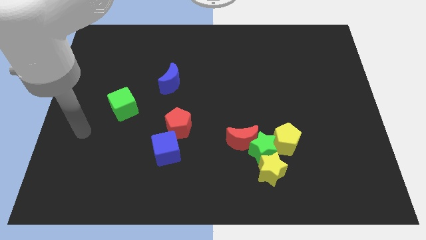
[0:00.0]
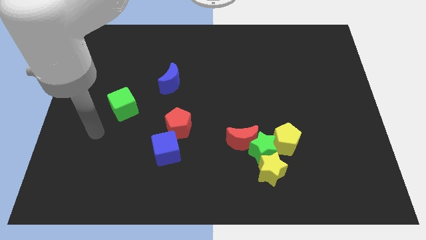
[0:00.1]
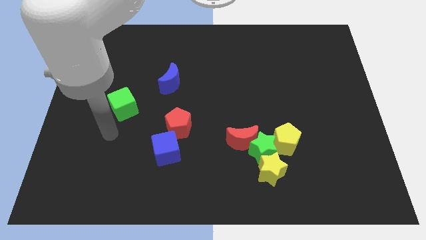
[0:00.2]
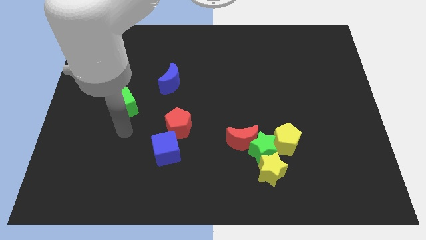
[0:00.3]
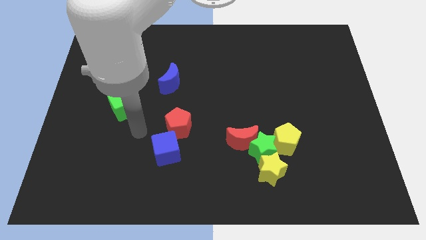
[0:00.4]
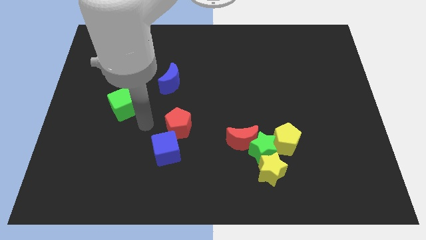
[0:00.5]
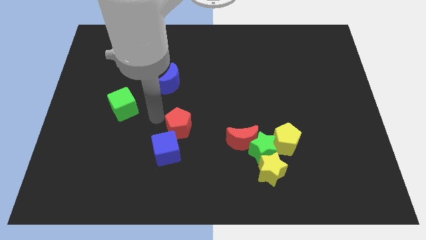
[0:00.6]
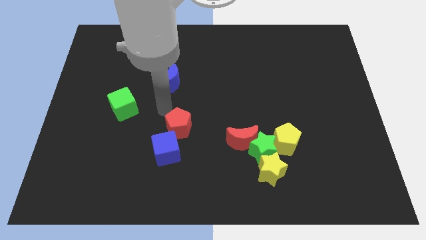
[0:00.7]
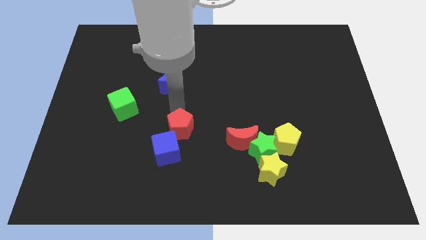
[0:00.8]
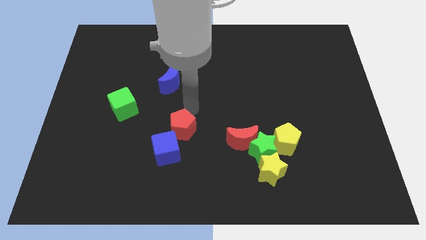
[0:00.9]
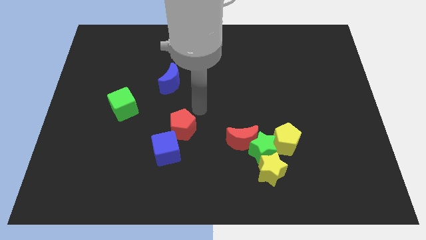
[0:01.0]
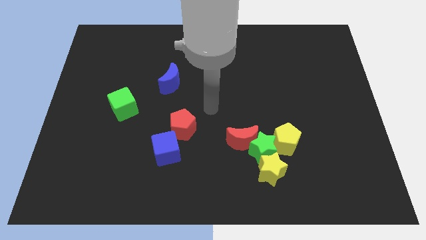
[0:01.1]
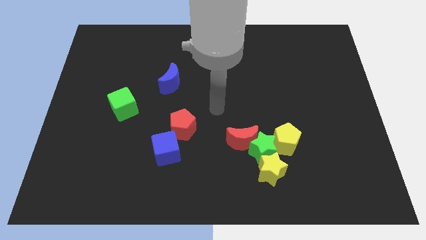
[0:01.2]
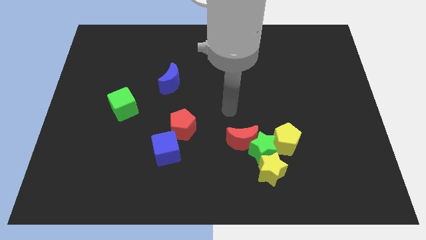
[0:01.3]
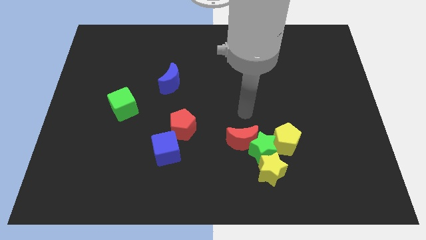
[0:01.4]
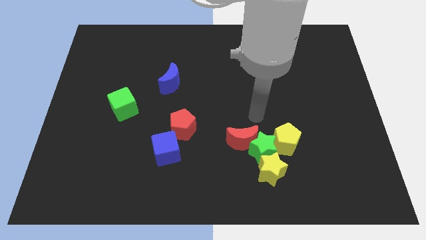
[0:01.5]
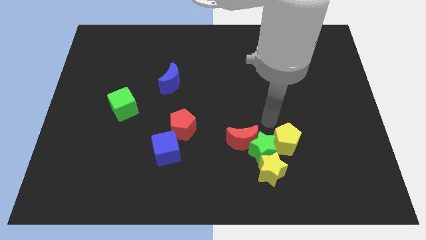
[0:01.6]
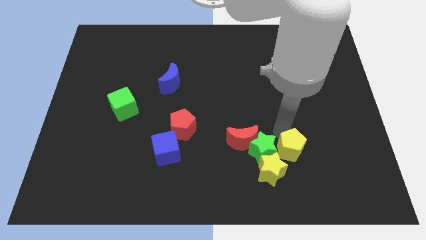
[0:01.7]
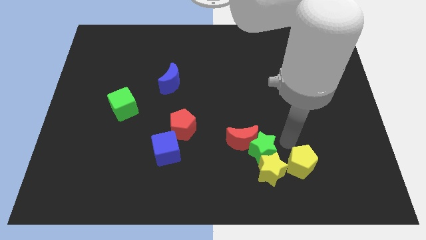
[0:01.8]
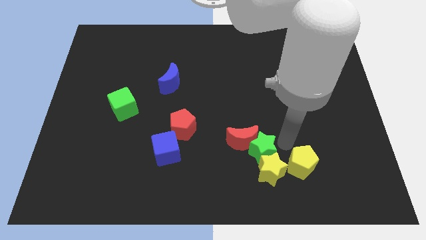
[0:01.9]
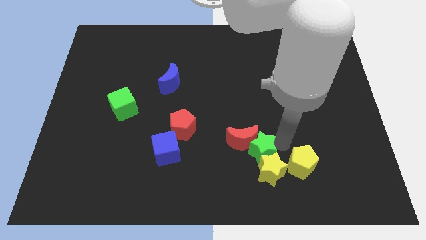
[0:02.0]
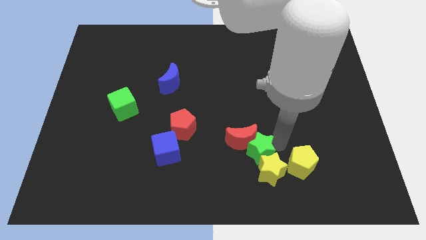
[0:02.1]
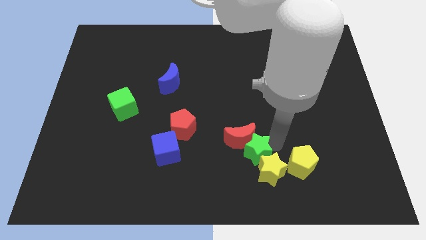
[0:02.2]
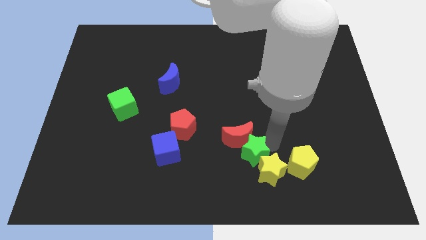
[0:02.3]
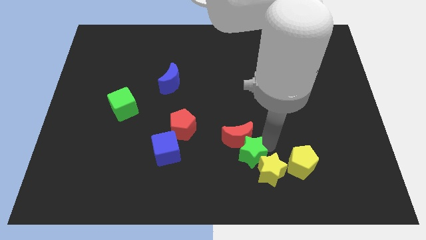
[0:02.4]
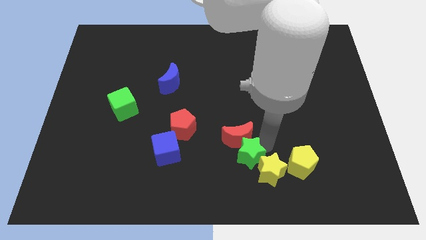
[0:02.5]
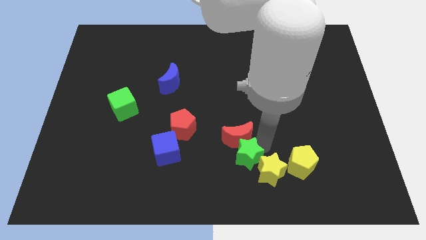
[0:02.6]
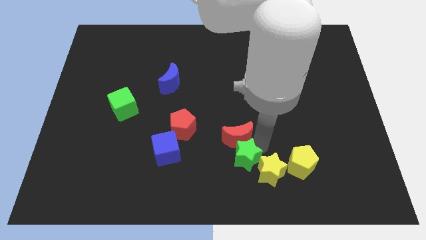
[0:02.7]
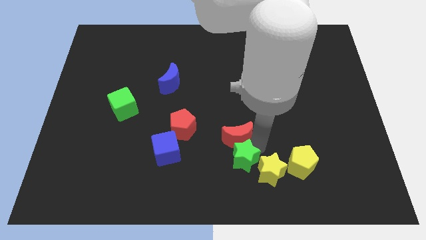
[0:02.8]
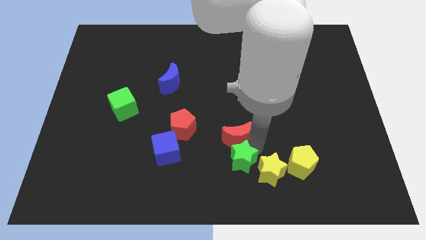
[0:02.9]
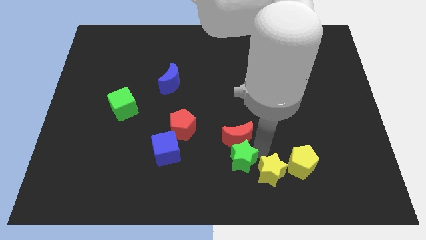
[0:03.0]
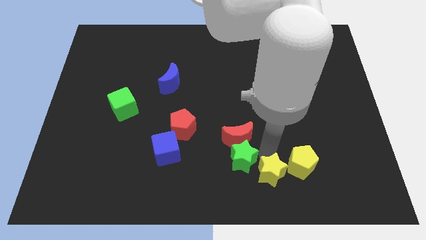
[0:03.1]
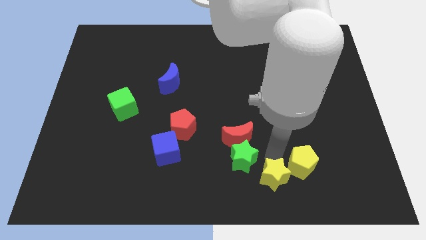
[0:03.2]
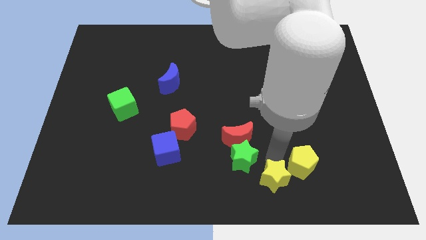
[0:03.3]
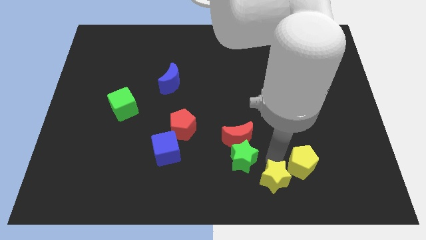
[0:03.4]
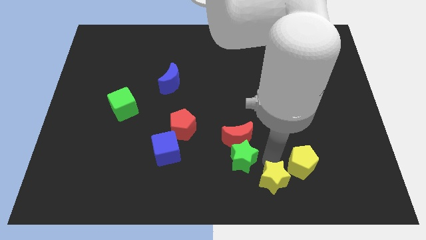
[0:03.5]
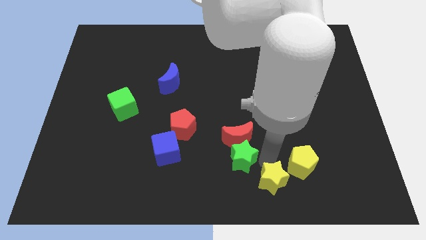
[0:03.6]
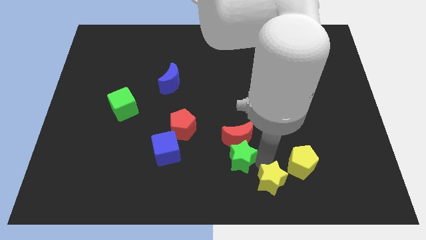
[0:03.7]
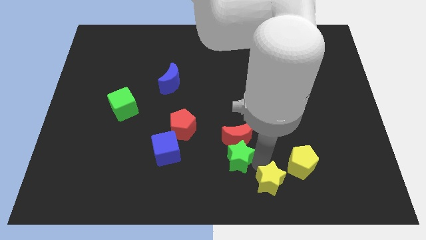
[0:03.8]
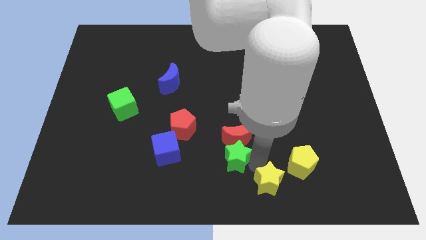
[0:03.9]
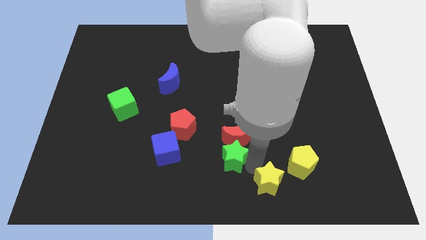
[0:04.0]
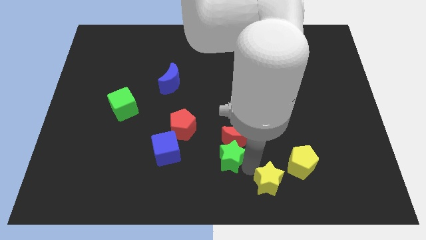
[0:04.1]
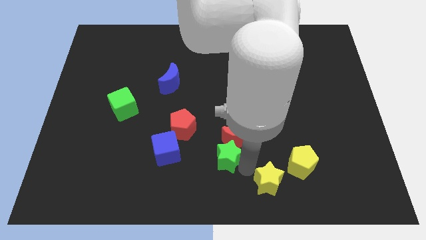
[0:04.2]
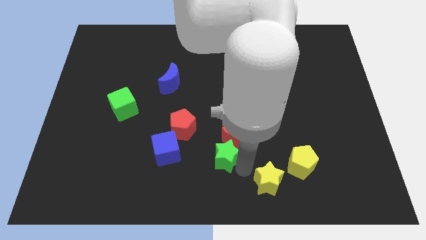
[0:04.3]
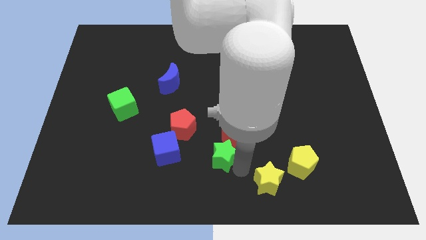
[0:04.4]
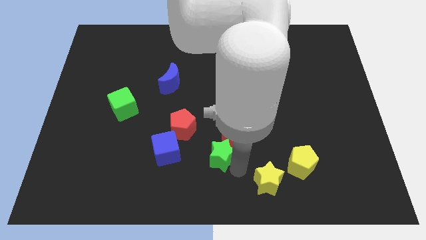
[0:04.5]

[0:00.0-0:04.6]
separate the green star from the red moon, yellow star, and yellow pentagon

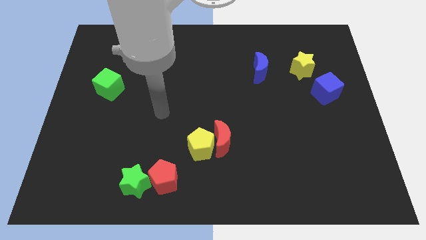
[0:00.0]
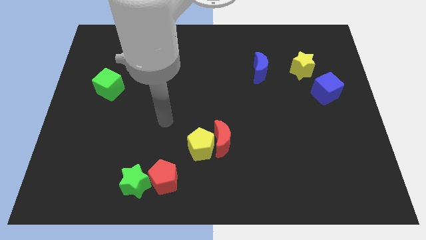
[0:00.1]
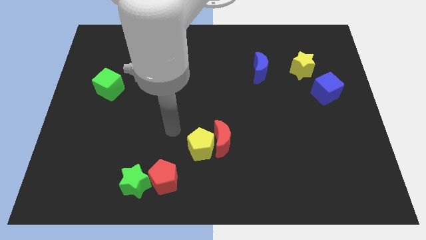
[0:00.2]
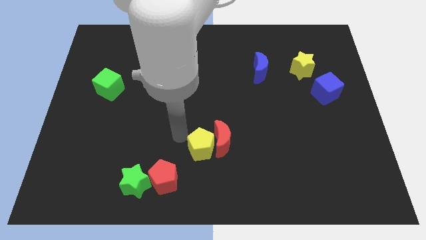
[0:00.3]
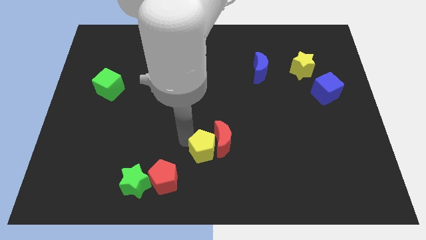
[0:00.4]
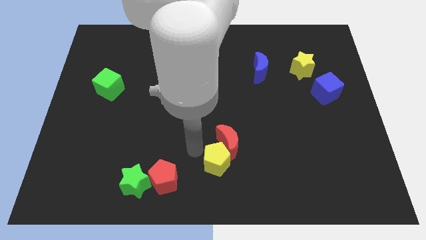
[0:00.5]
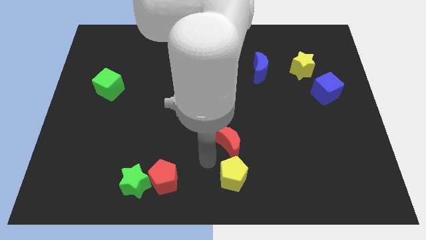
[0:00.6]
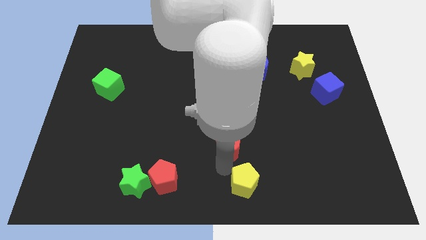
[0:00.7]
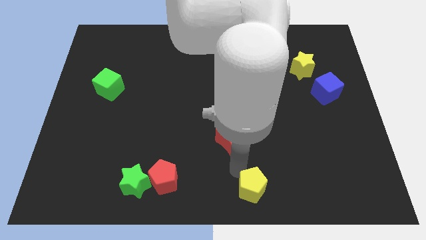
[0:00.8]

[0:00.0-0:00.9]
separate the red moon from the yellow pentagon

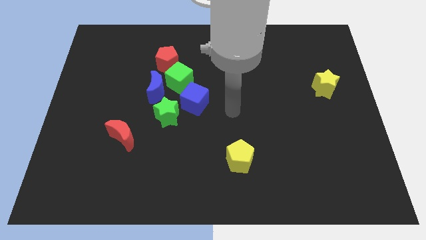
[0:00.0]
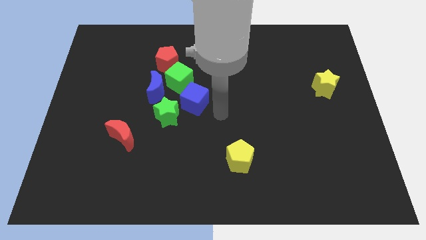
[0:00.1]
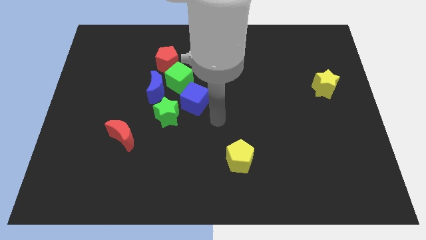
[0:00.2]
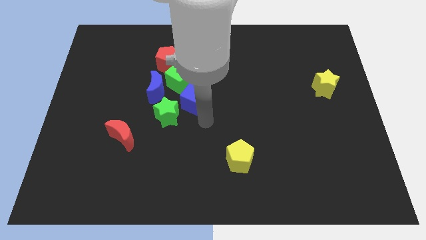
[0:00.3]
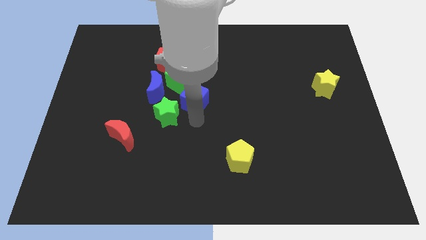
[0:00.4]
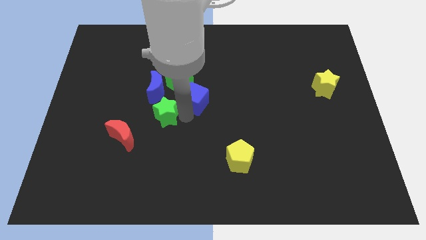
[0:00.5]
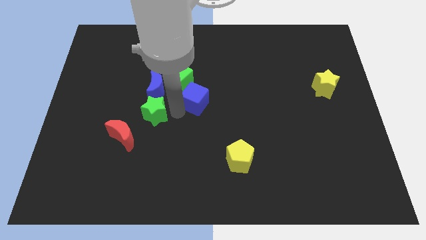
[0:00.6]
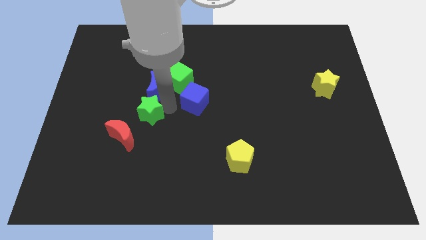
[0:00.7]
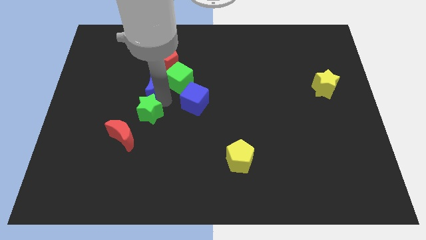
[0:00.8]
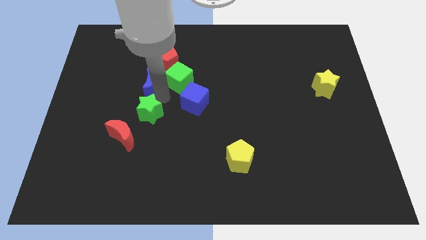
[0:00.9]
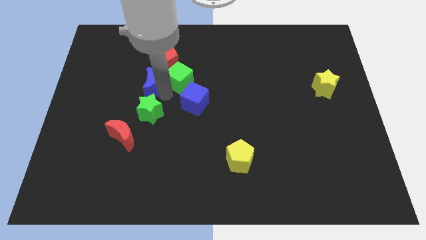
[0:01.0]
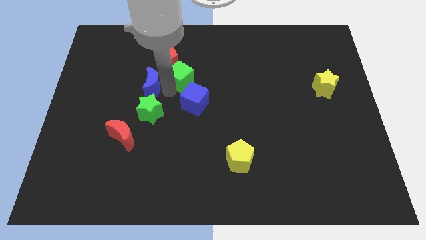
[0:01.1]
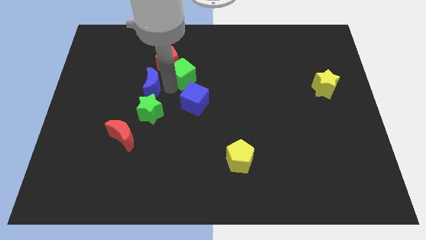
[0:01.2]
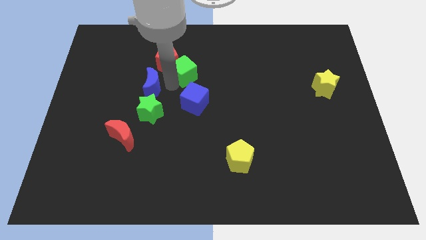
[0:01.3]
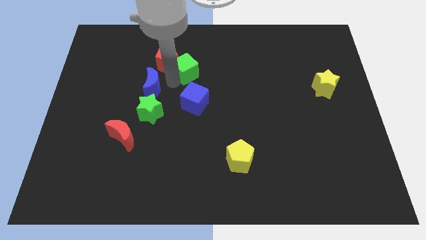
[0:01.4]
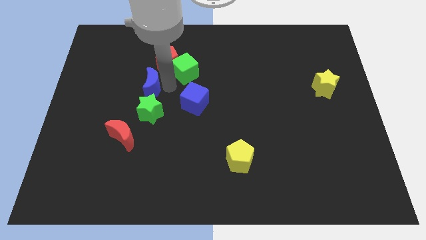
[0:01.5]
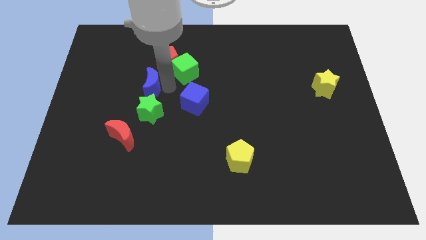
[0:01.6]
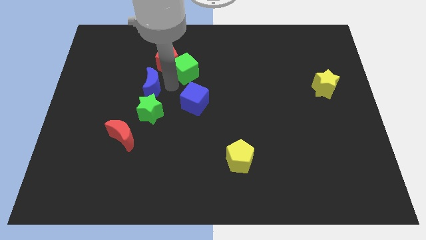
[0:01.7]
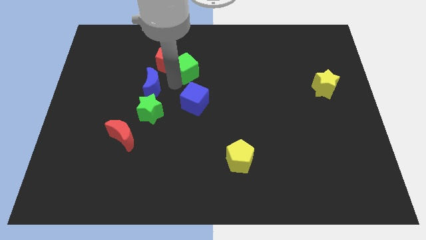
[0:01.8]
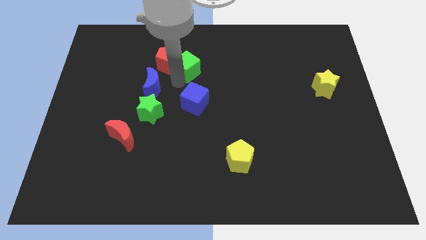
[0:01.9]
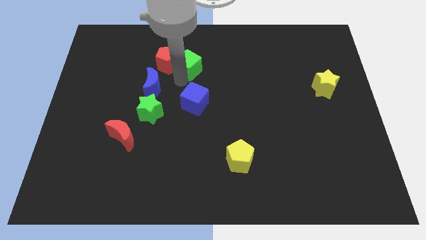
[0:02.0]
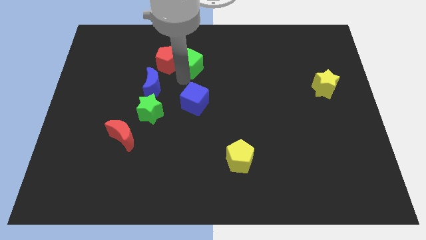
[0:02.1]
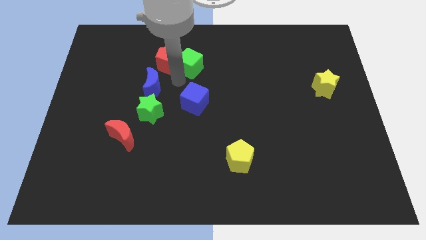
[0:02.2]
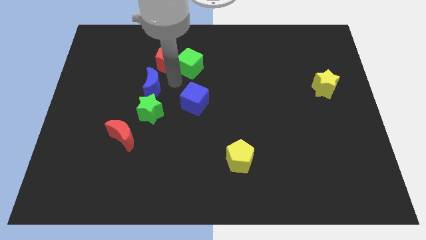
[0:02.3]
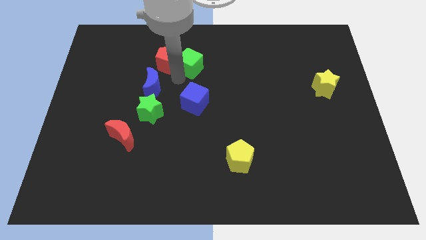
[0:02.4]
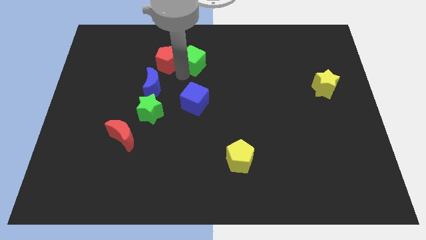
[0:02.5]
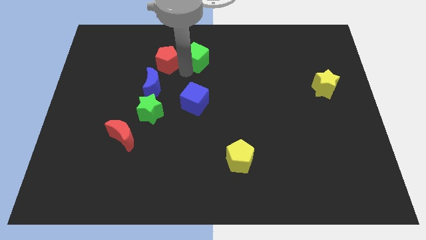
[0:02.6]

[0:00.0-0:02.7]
pull the green cube apart from the blue moon, red pentagon, and blue cube

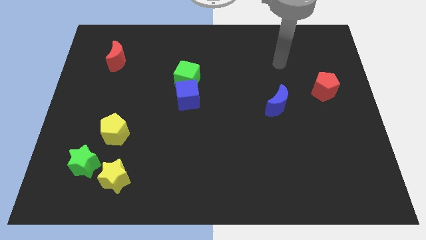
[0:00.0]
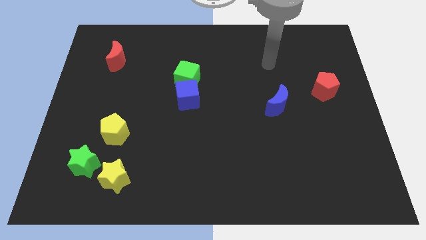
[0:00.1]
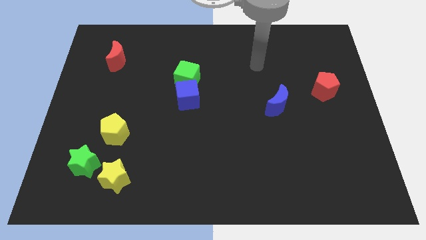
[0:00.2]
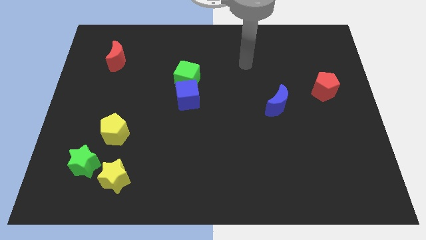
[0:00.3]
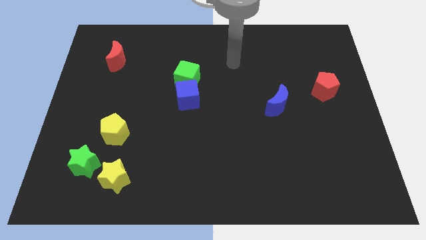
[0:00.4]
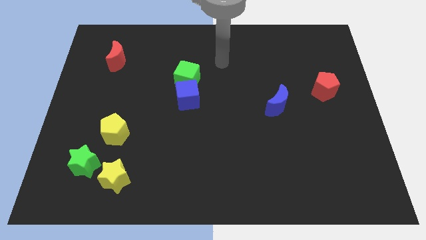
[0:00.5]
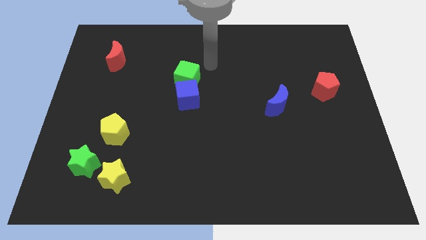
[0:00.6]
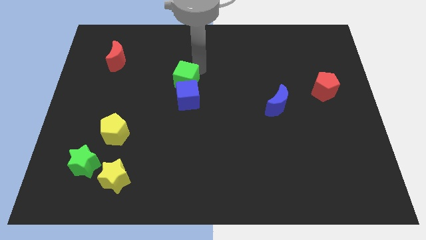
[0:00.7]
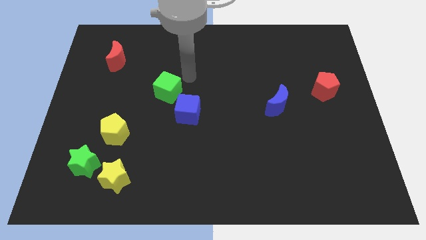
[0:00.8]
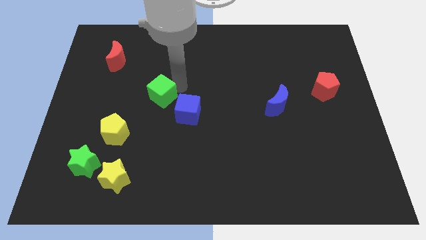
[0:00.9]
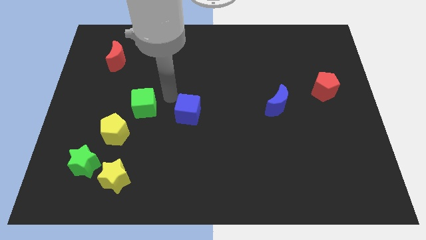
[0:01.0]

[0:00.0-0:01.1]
pull the blue cube apart from the green cube
